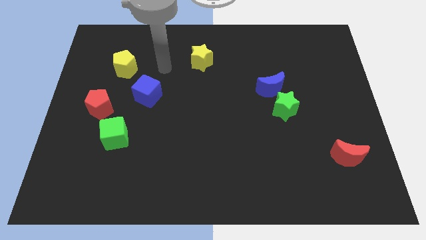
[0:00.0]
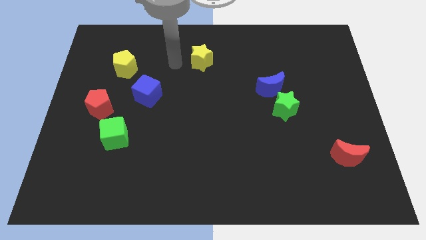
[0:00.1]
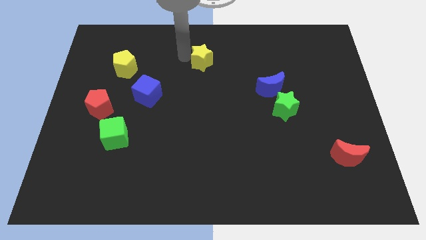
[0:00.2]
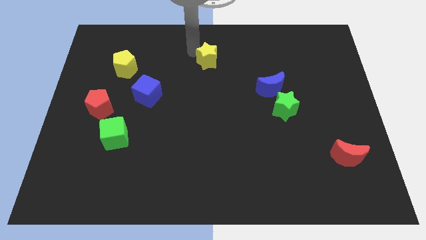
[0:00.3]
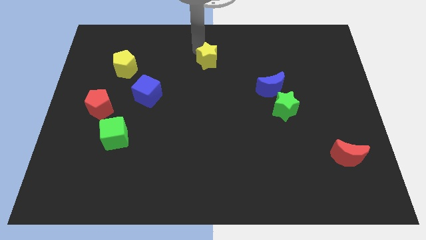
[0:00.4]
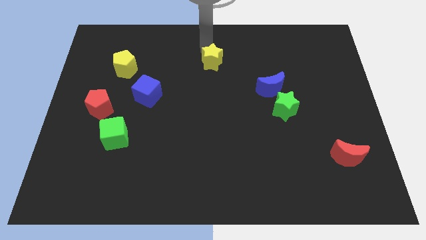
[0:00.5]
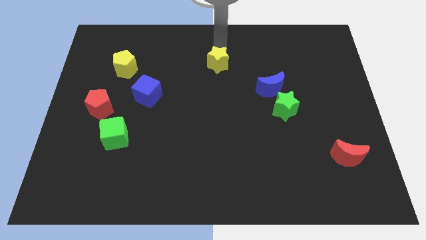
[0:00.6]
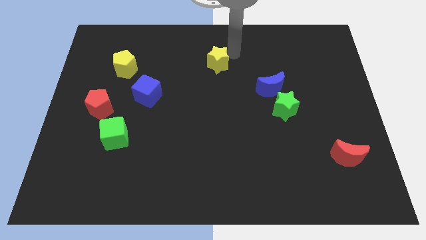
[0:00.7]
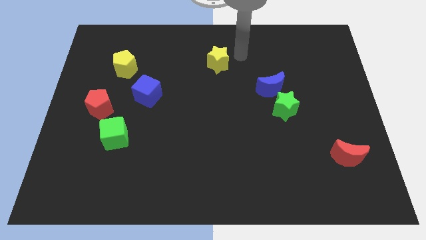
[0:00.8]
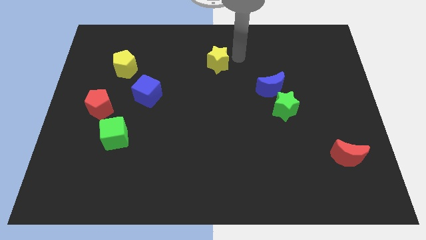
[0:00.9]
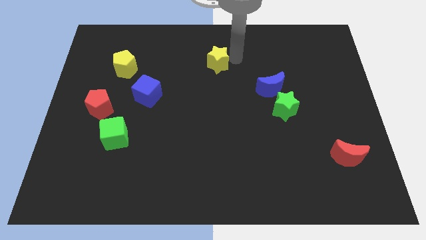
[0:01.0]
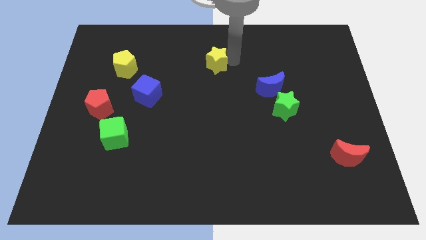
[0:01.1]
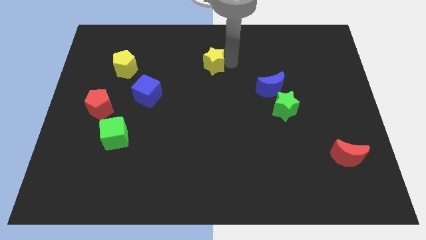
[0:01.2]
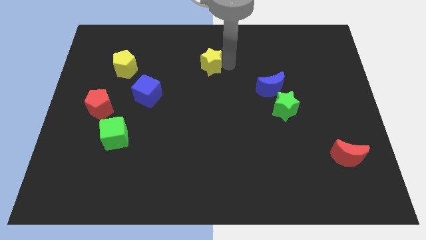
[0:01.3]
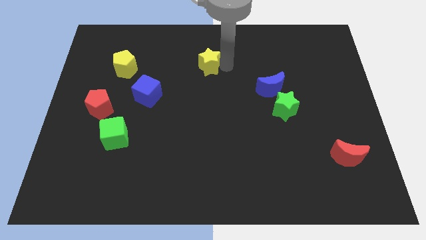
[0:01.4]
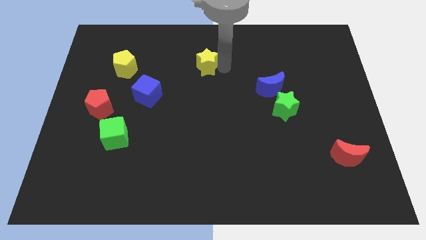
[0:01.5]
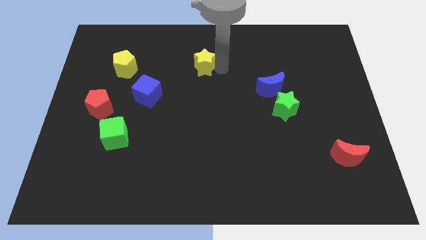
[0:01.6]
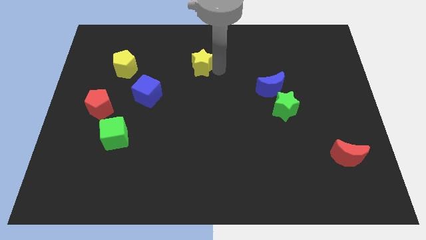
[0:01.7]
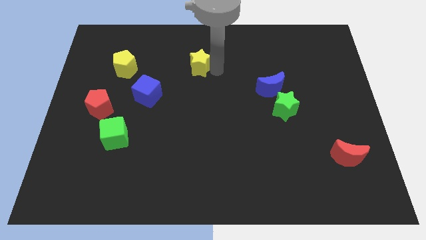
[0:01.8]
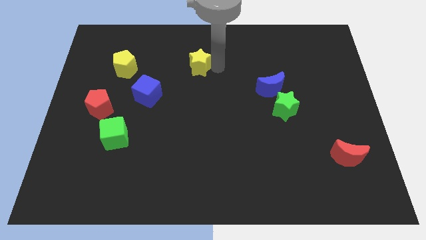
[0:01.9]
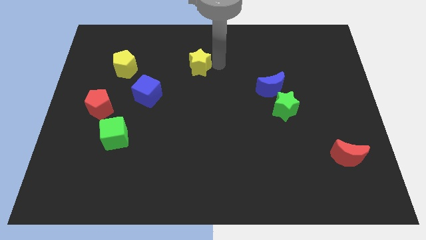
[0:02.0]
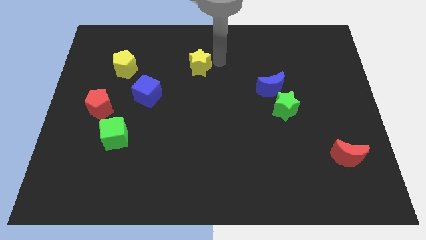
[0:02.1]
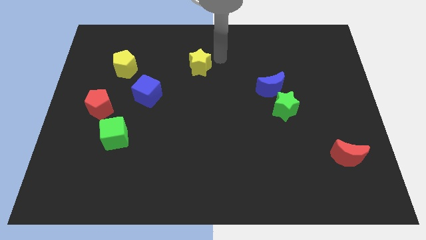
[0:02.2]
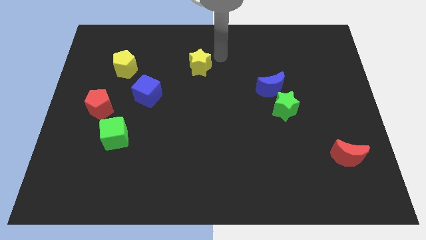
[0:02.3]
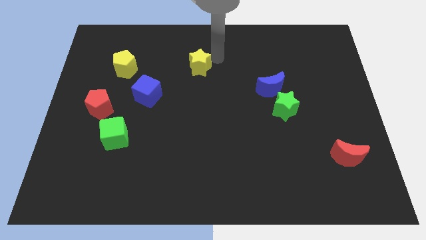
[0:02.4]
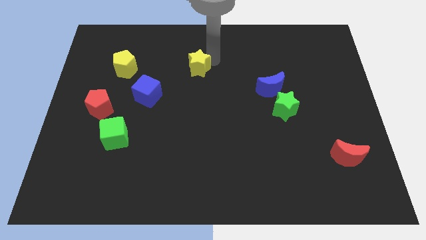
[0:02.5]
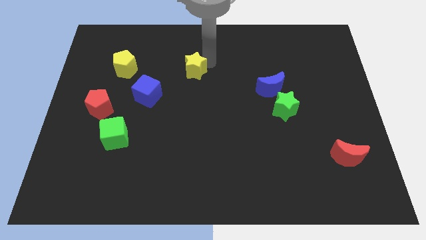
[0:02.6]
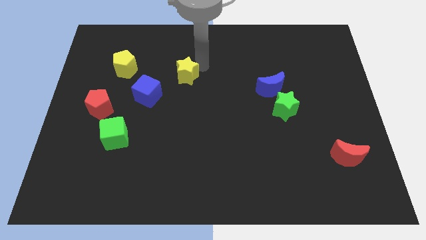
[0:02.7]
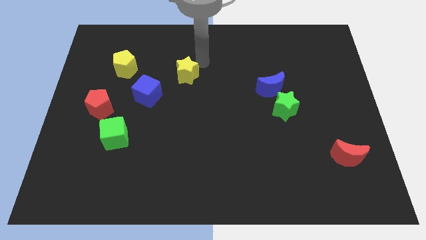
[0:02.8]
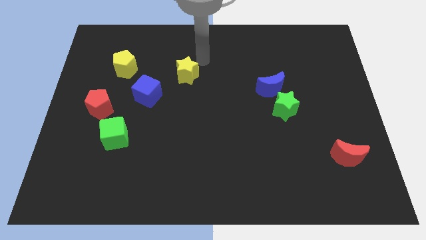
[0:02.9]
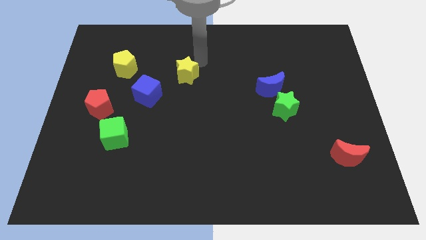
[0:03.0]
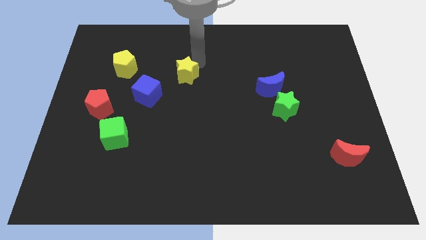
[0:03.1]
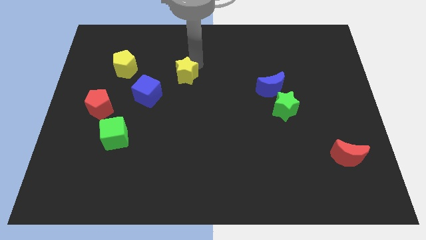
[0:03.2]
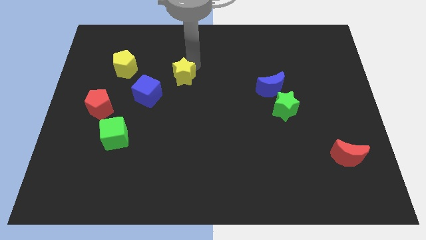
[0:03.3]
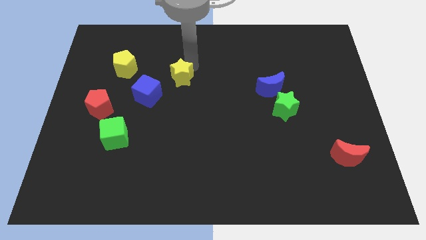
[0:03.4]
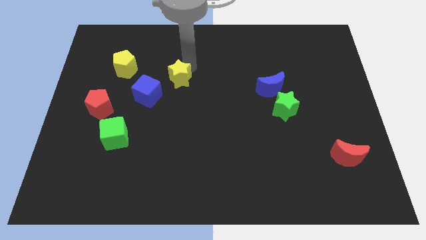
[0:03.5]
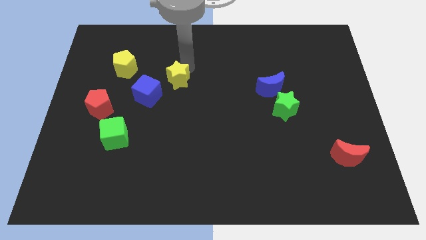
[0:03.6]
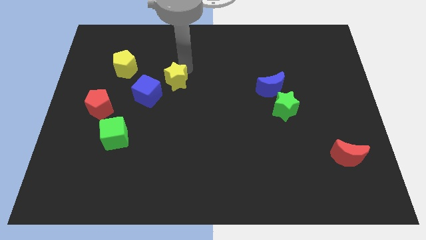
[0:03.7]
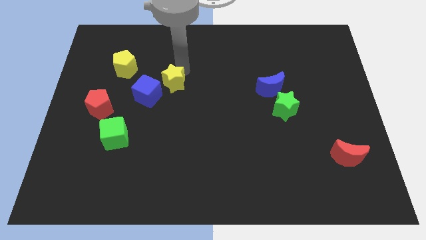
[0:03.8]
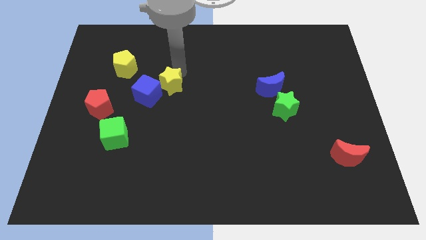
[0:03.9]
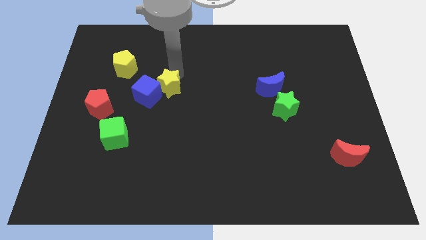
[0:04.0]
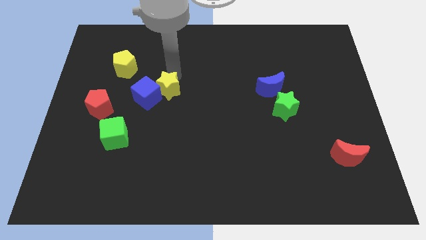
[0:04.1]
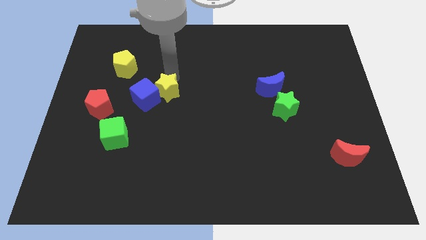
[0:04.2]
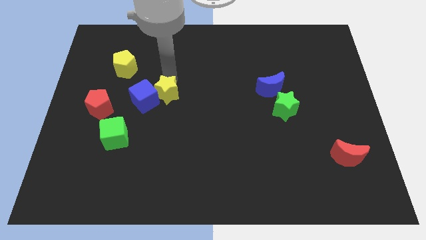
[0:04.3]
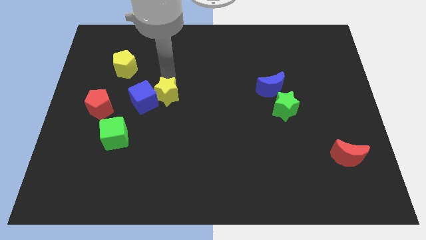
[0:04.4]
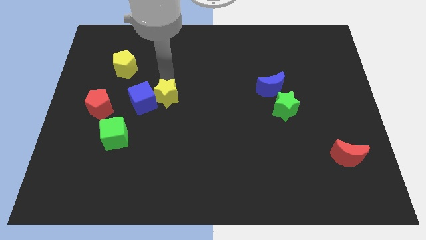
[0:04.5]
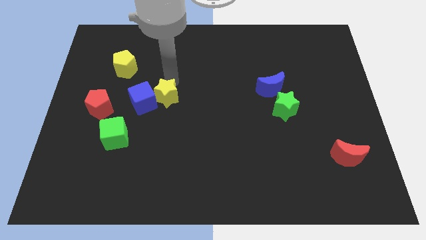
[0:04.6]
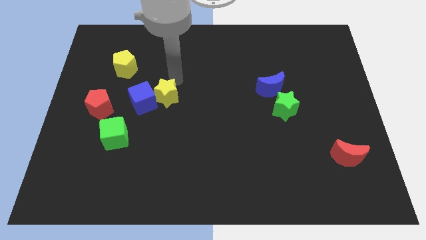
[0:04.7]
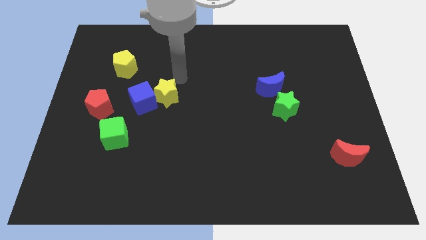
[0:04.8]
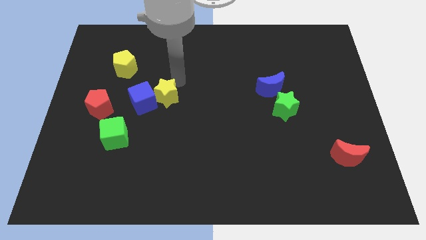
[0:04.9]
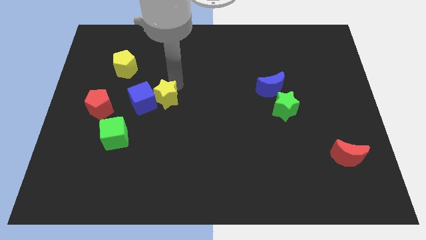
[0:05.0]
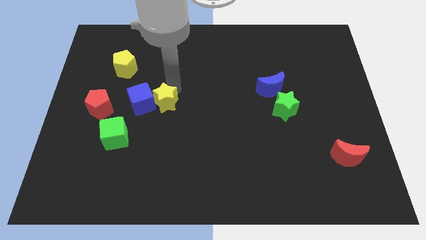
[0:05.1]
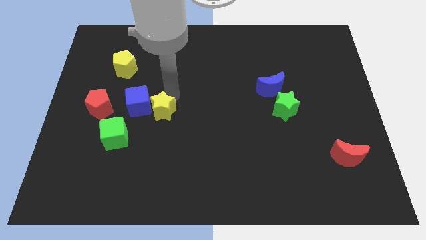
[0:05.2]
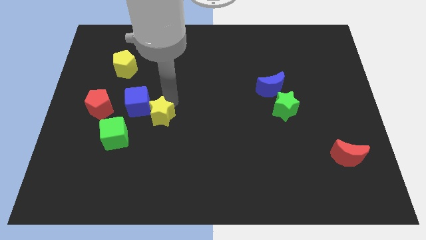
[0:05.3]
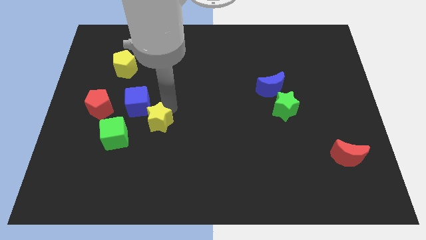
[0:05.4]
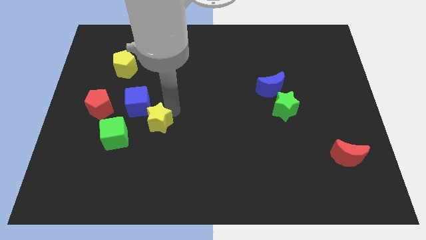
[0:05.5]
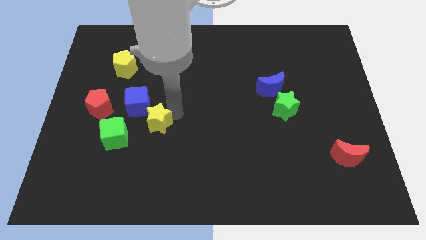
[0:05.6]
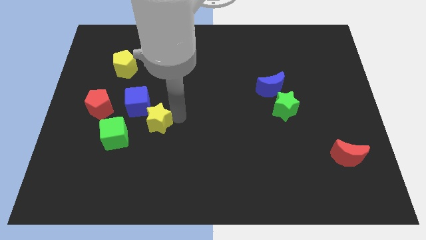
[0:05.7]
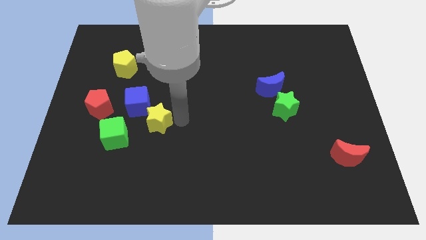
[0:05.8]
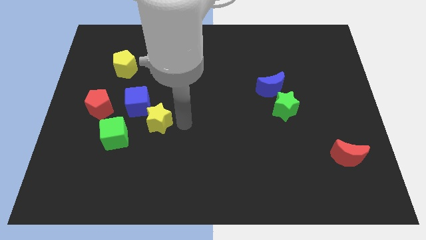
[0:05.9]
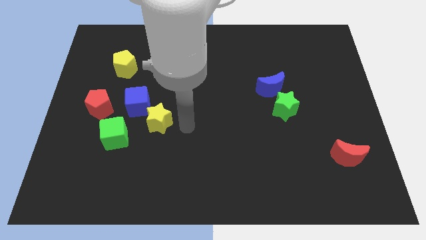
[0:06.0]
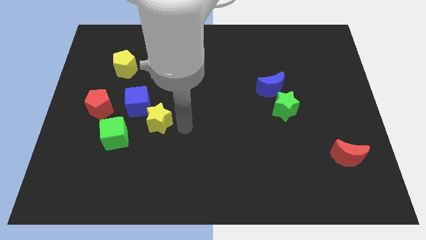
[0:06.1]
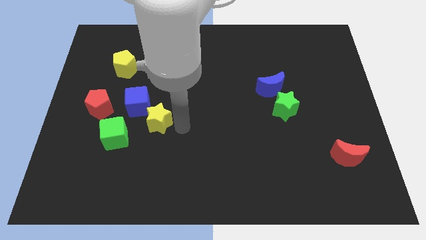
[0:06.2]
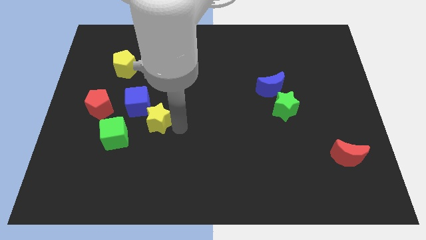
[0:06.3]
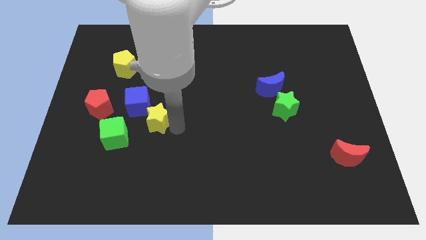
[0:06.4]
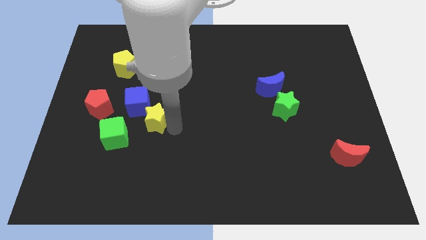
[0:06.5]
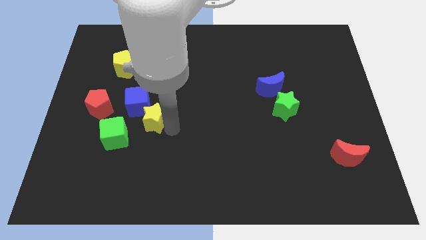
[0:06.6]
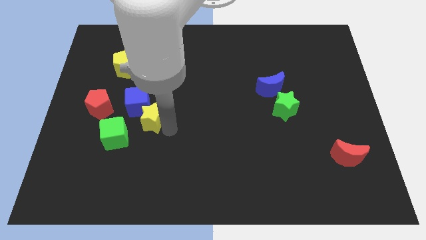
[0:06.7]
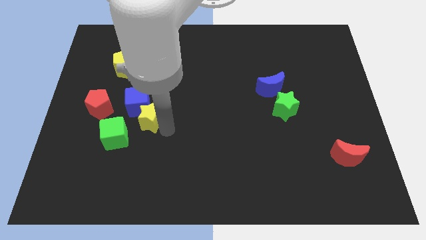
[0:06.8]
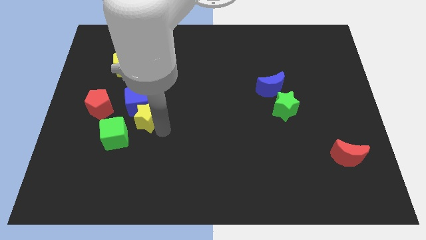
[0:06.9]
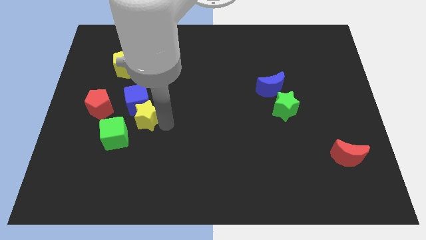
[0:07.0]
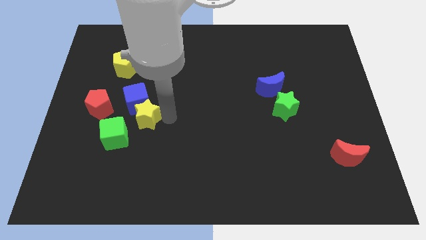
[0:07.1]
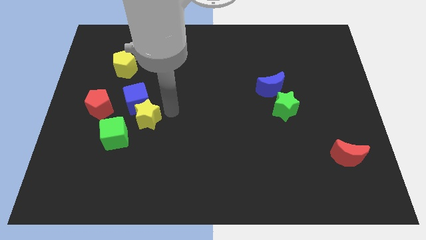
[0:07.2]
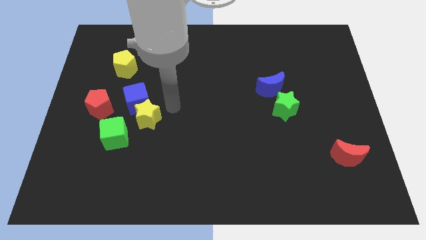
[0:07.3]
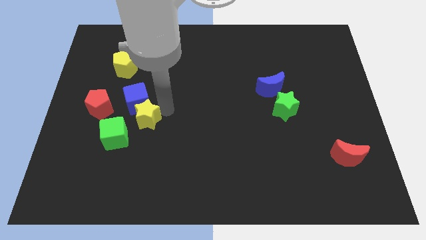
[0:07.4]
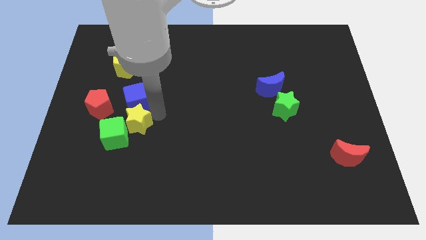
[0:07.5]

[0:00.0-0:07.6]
push the yellow star close to the green cube
